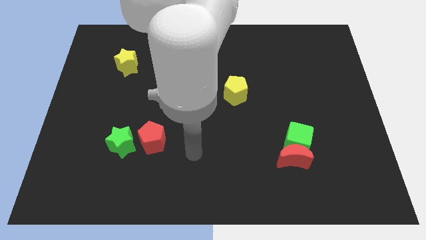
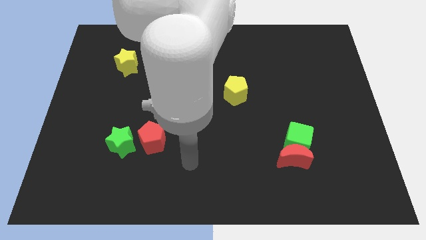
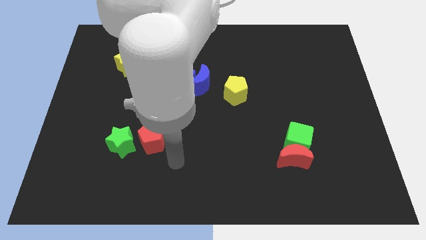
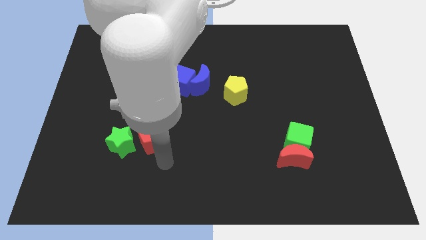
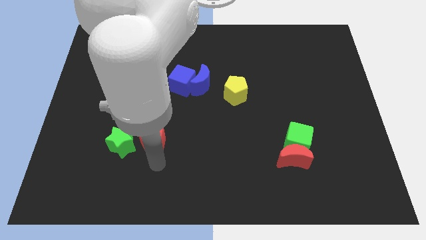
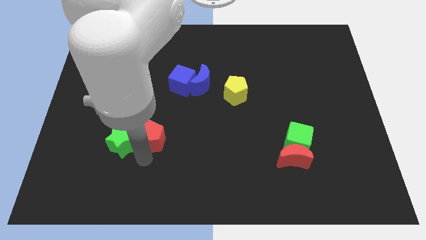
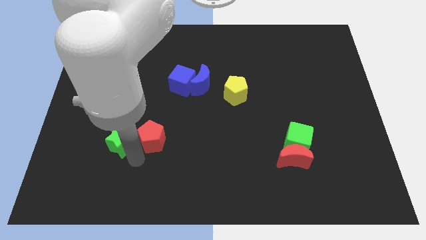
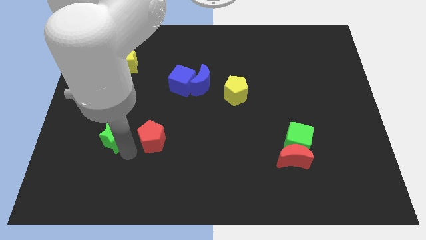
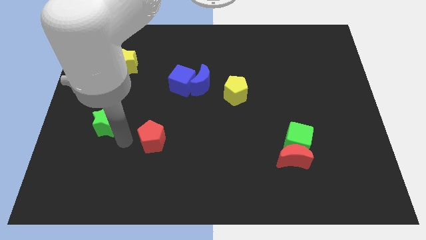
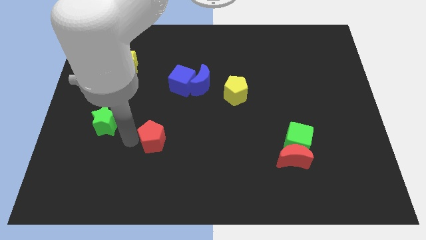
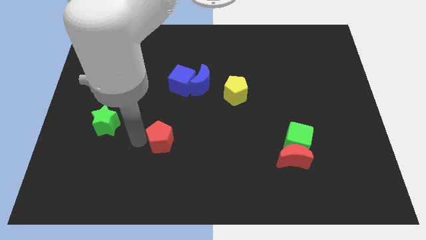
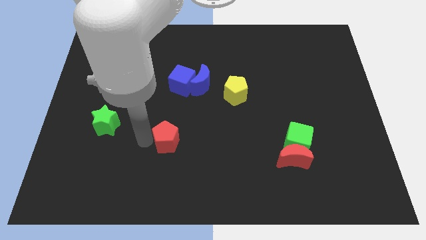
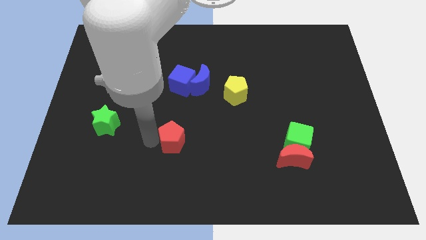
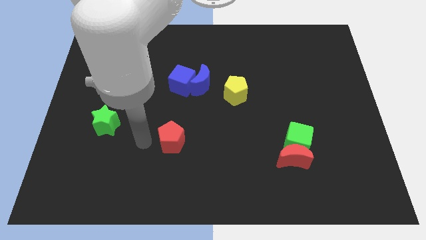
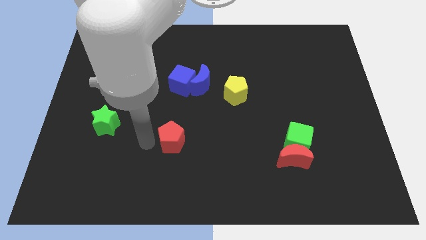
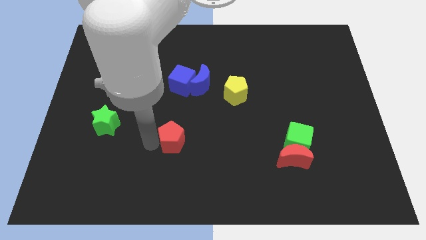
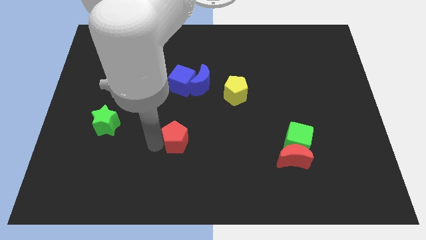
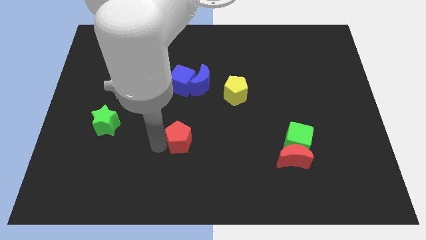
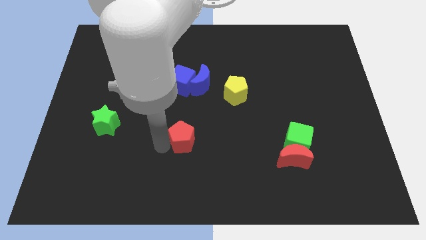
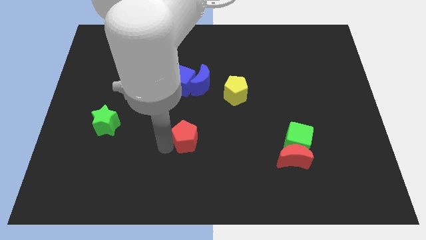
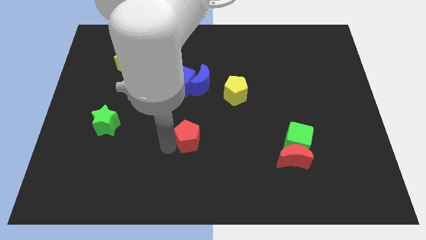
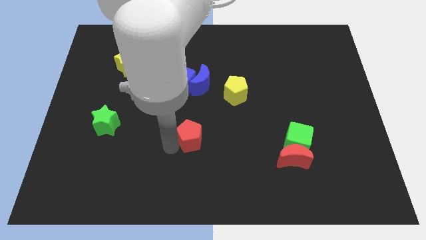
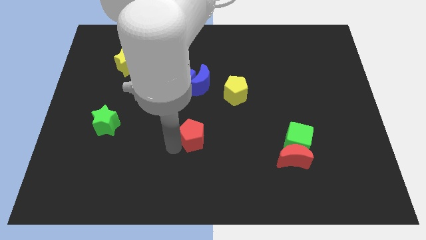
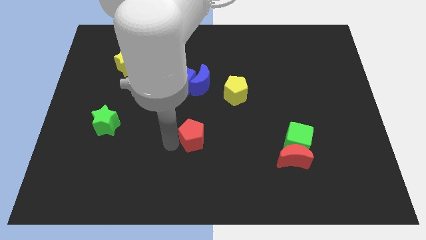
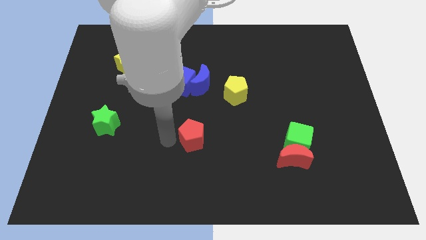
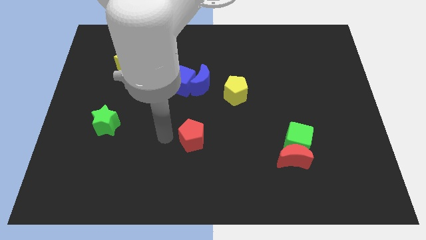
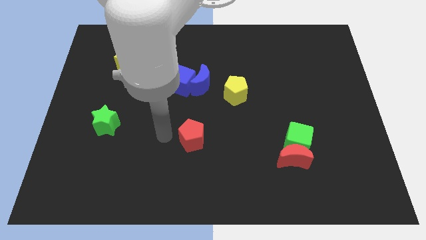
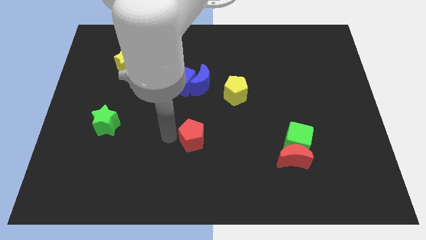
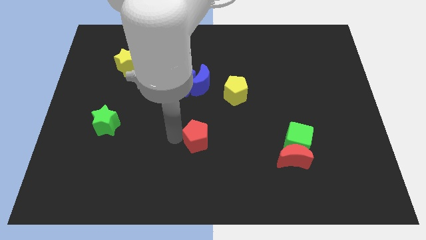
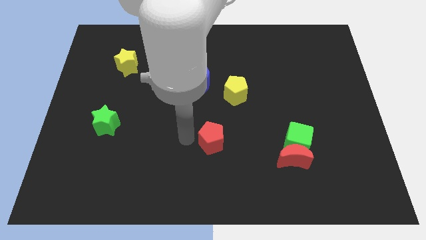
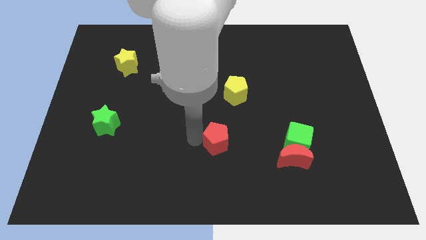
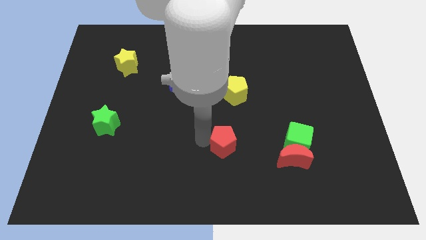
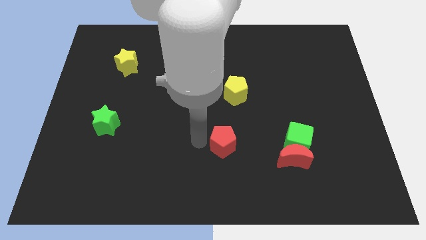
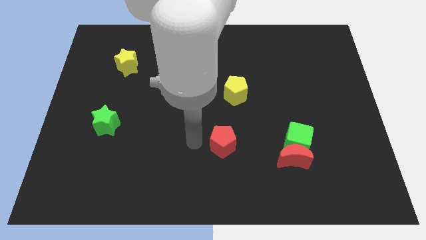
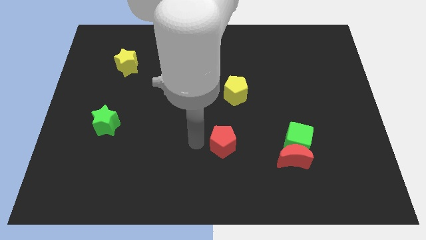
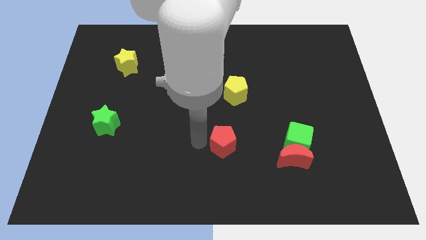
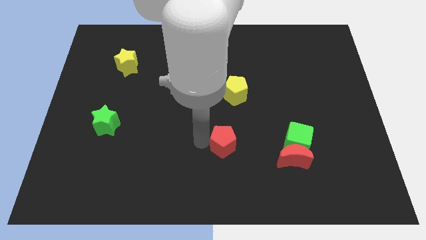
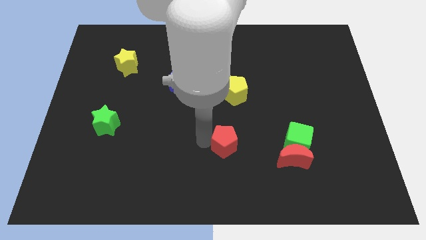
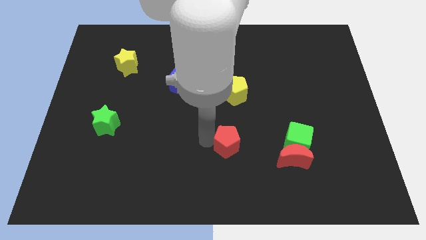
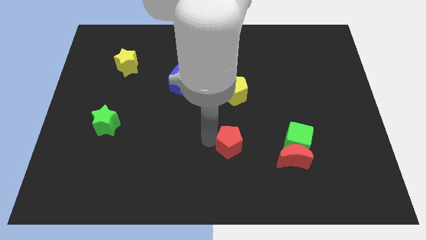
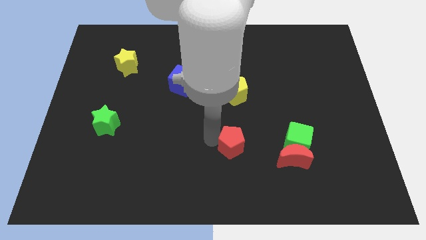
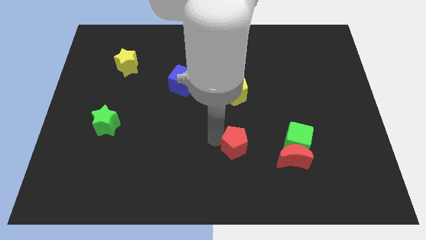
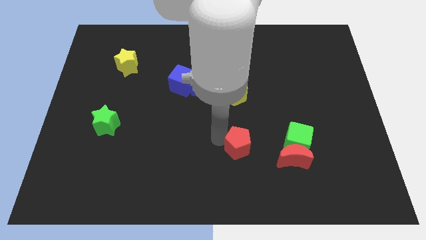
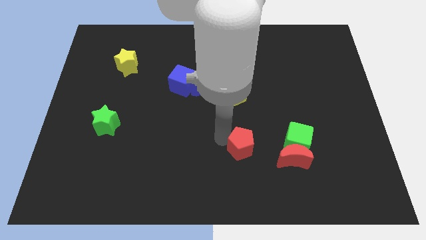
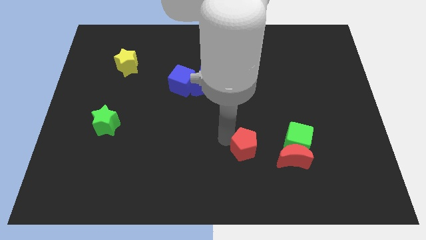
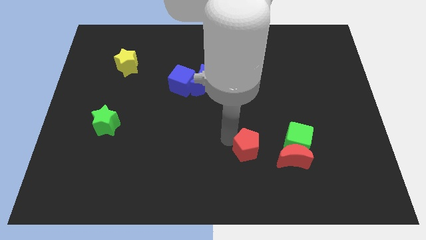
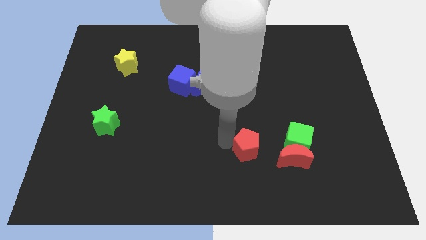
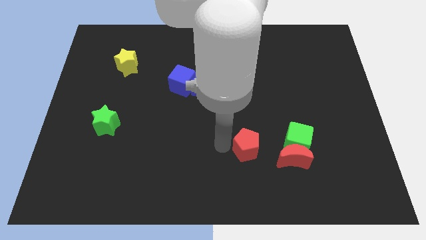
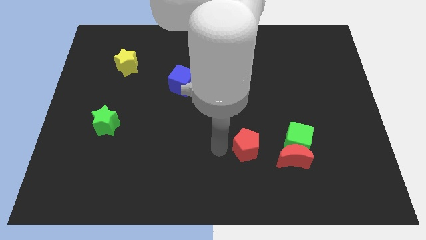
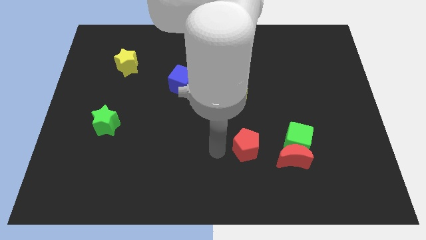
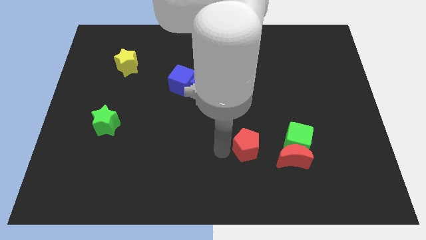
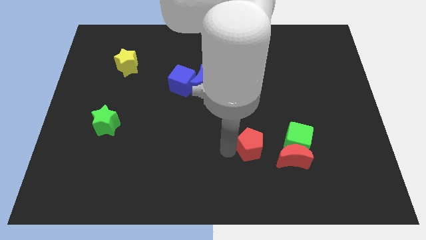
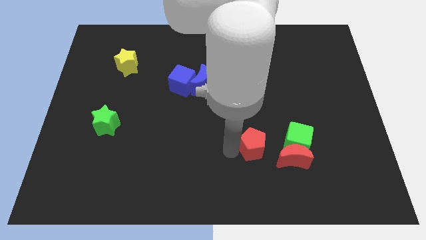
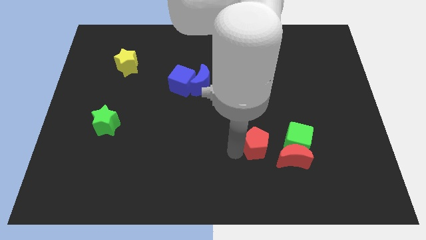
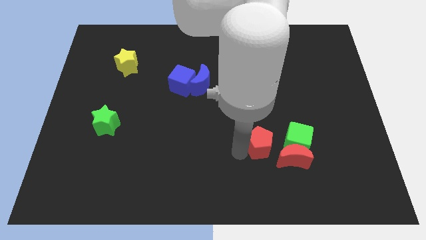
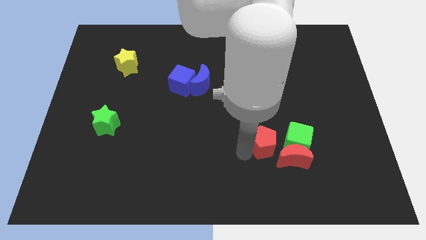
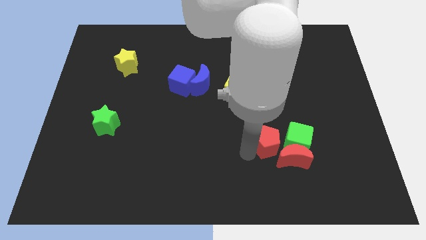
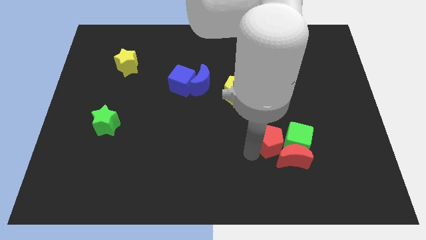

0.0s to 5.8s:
put the red pentagon to the green cube

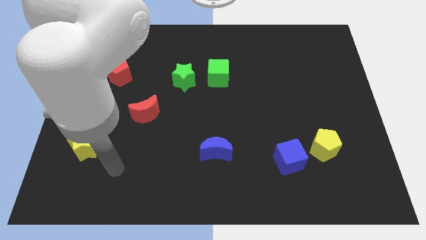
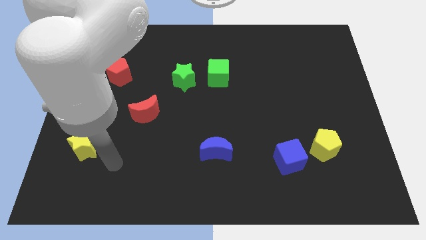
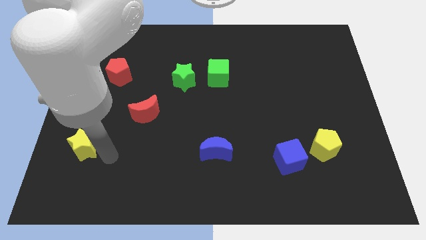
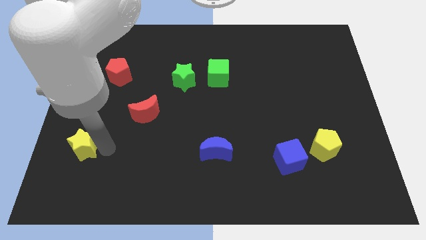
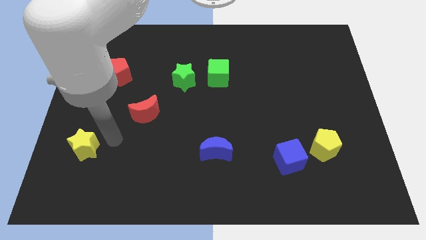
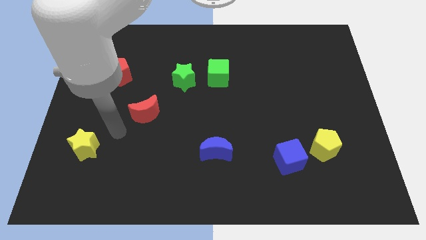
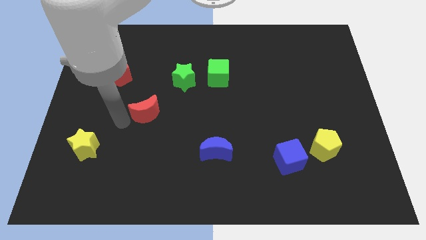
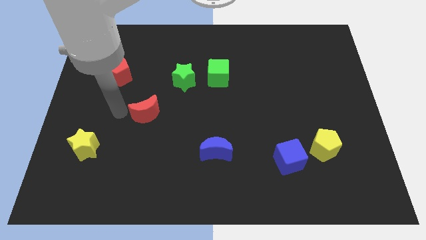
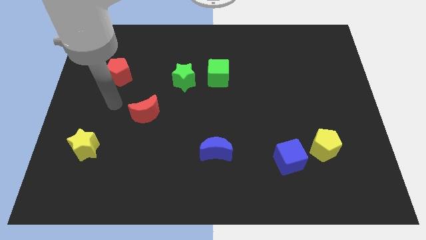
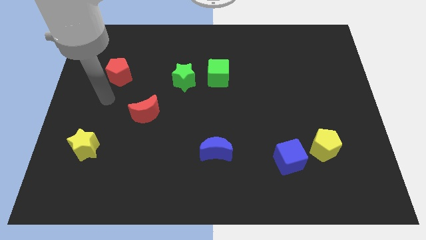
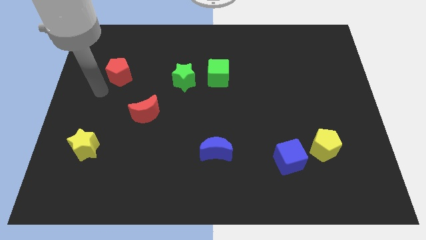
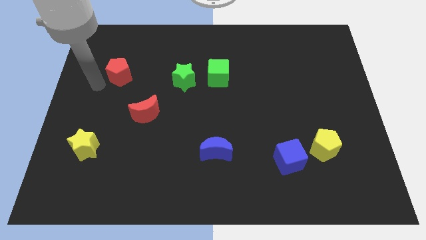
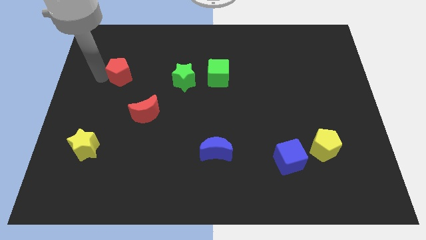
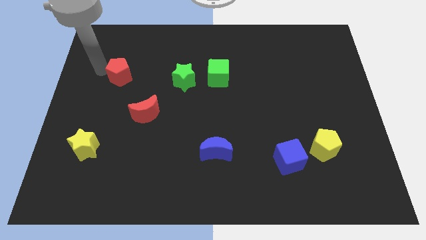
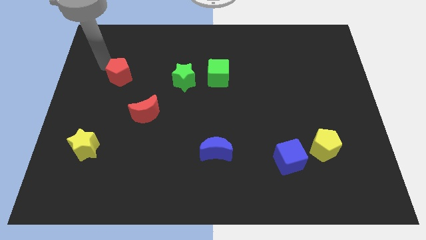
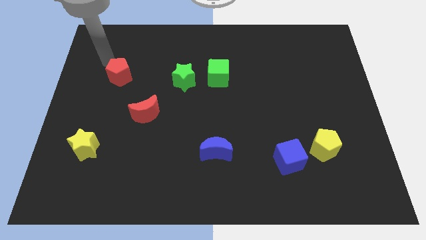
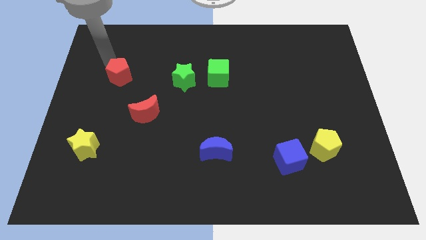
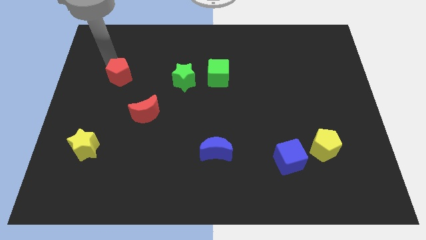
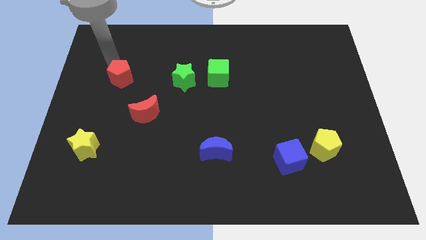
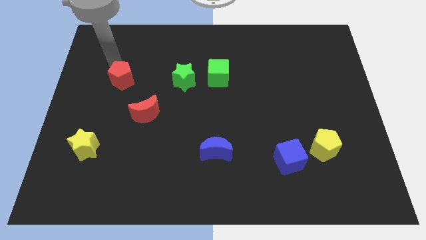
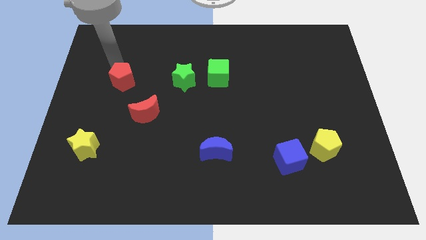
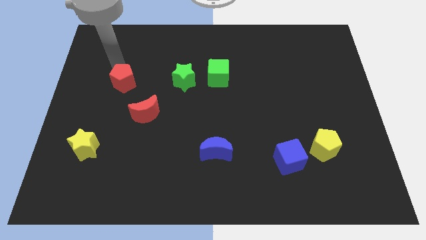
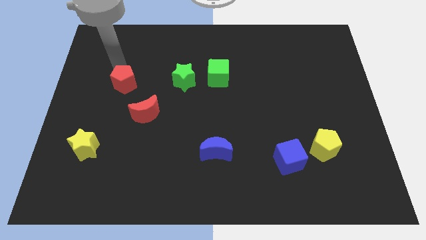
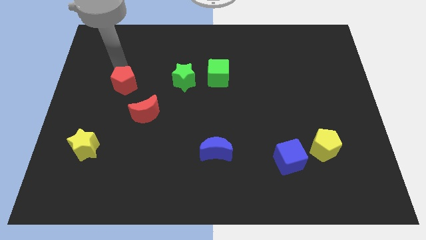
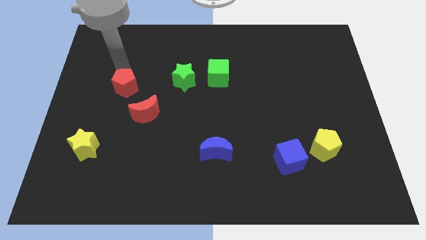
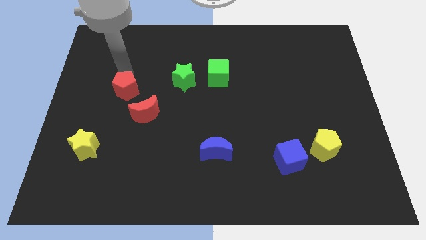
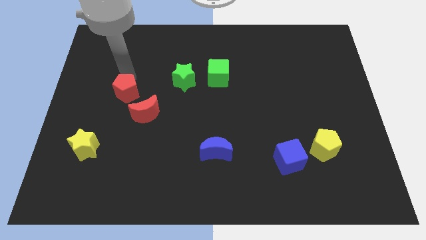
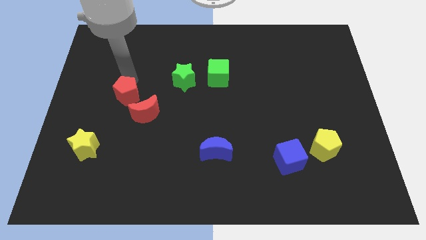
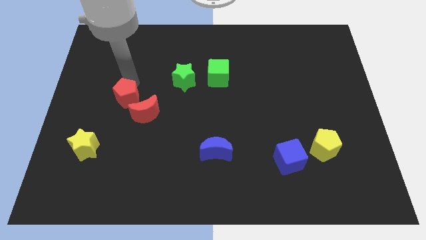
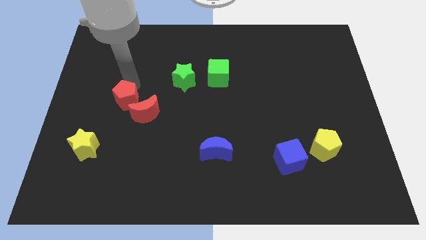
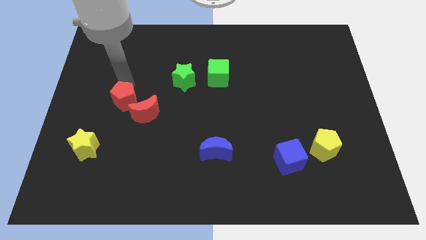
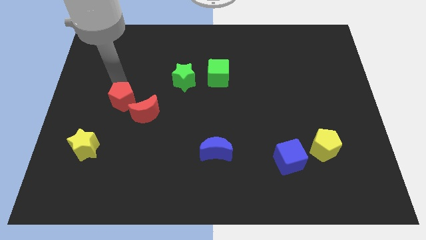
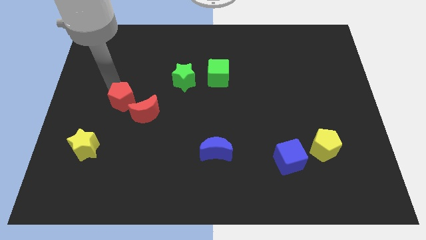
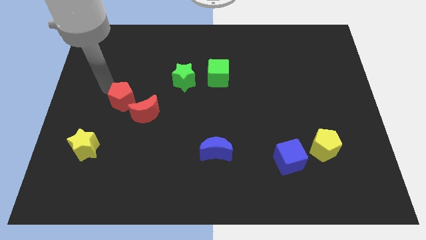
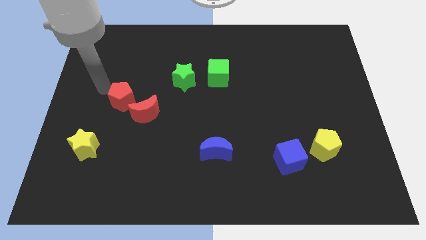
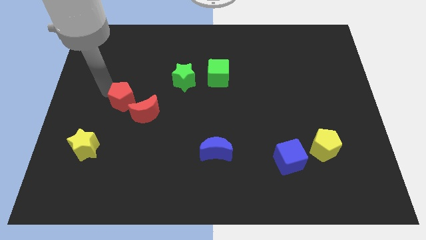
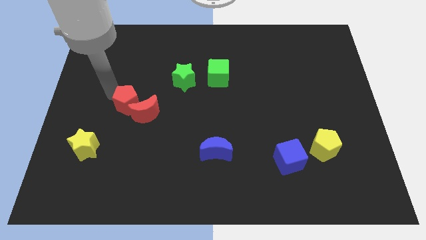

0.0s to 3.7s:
slide the red pentagon towards the red moon
